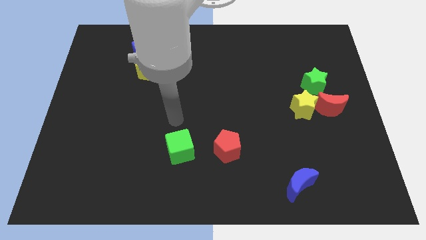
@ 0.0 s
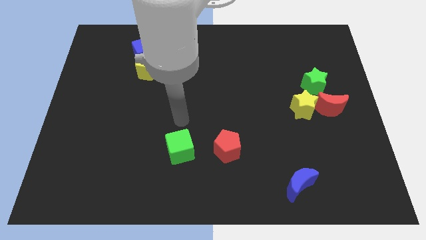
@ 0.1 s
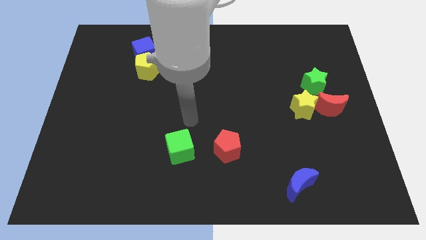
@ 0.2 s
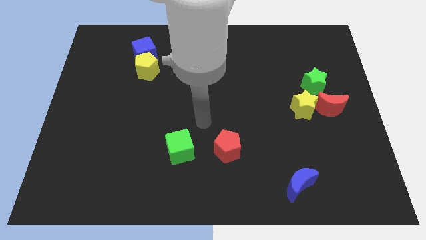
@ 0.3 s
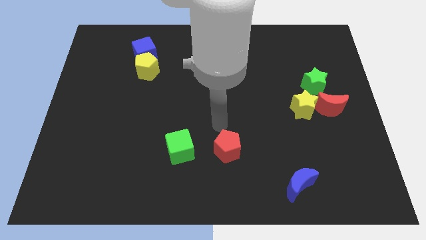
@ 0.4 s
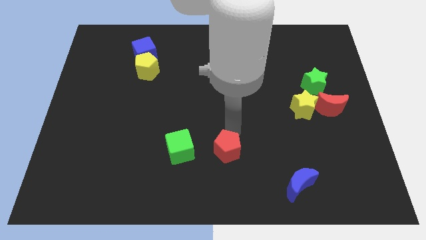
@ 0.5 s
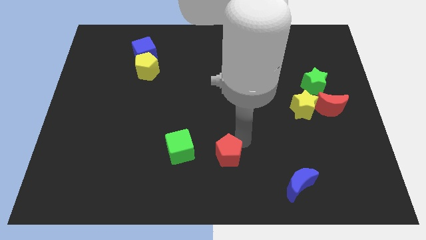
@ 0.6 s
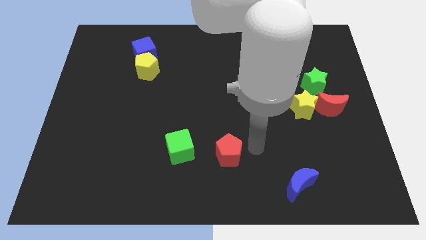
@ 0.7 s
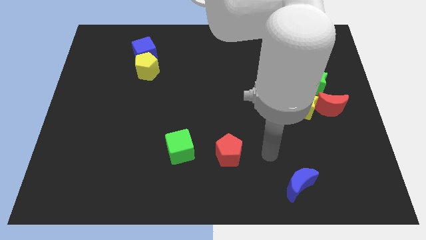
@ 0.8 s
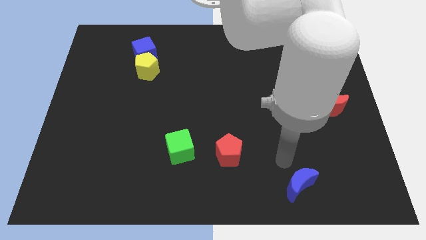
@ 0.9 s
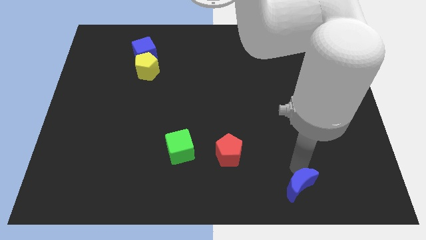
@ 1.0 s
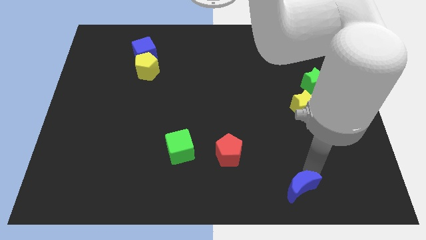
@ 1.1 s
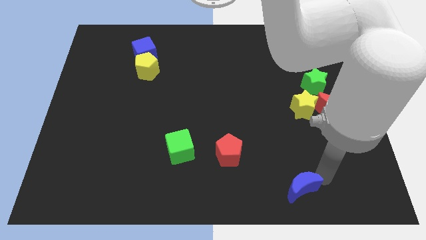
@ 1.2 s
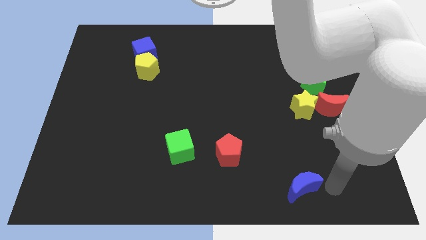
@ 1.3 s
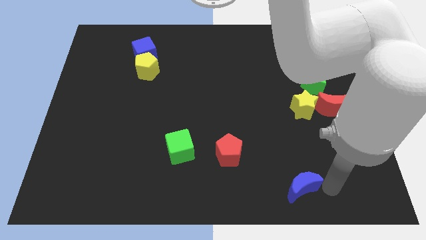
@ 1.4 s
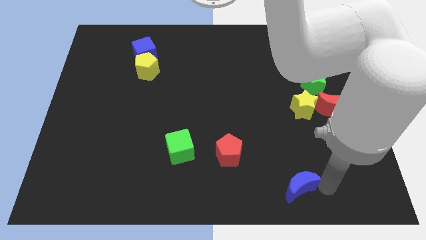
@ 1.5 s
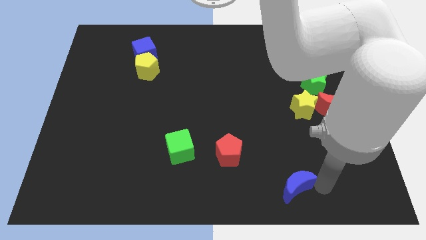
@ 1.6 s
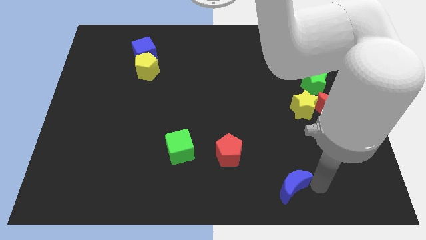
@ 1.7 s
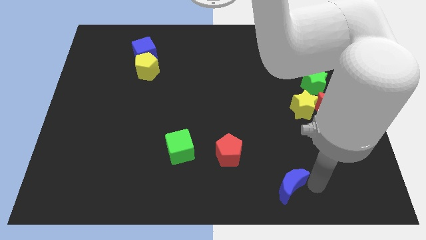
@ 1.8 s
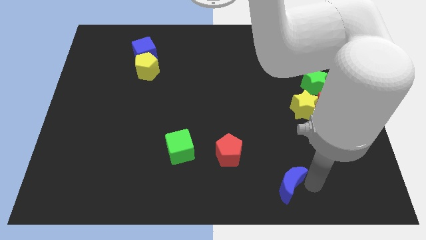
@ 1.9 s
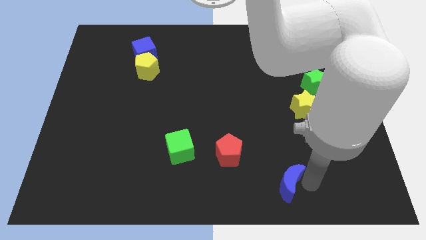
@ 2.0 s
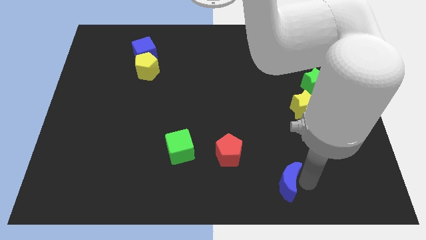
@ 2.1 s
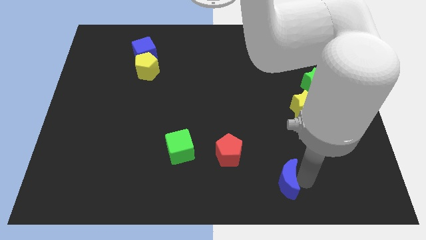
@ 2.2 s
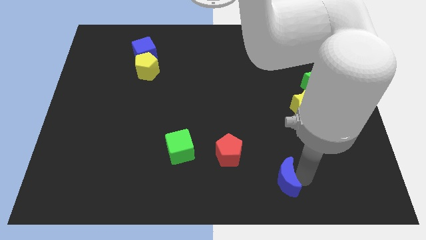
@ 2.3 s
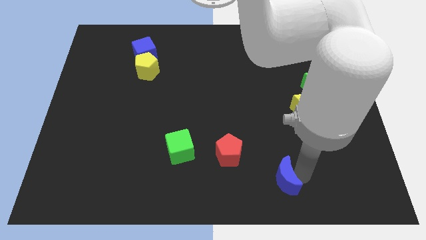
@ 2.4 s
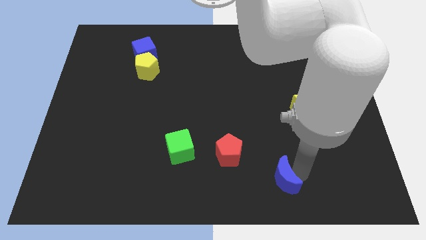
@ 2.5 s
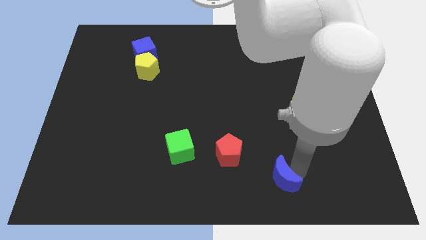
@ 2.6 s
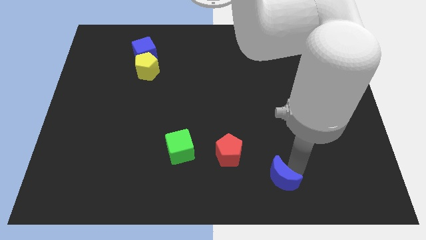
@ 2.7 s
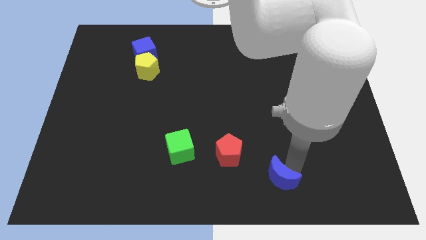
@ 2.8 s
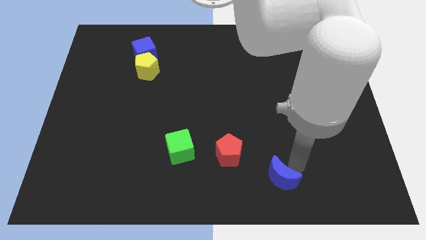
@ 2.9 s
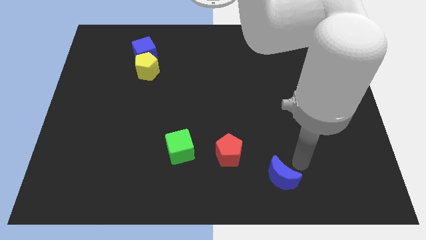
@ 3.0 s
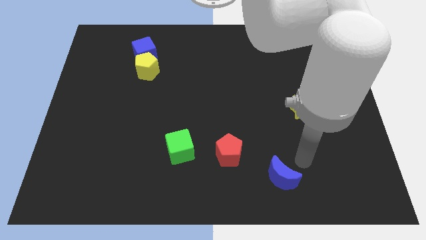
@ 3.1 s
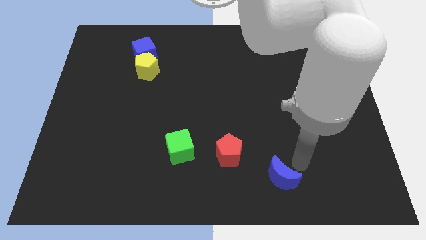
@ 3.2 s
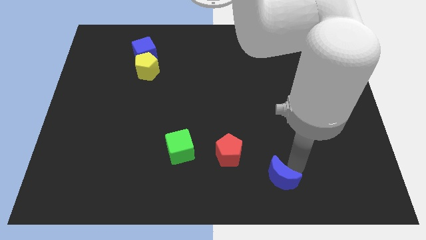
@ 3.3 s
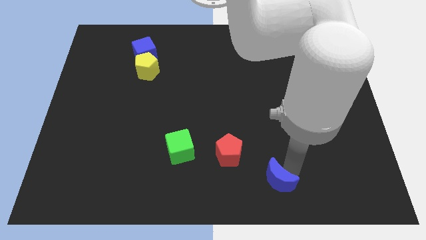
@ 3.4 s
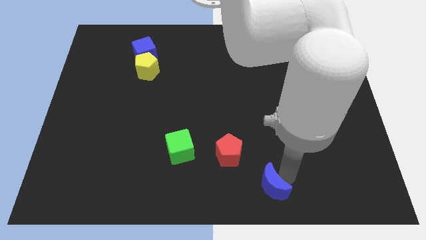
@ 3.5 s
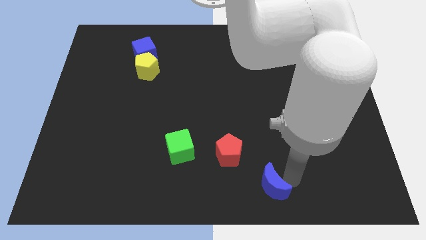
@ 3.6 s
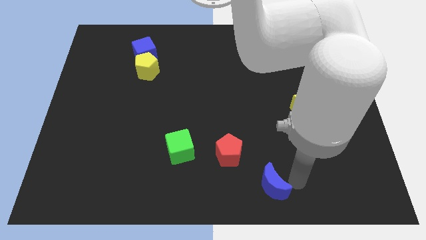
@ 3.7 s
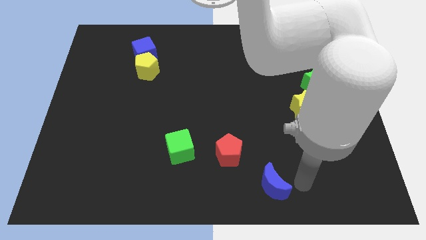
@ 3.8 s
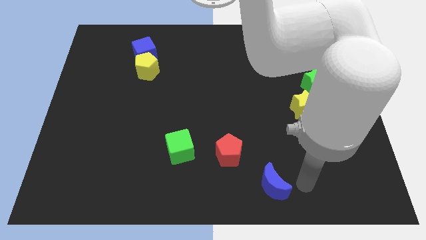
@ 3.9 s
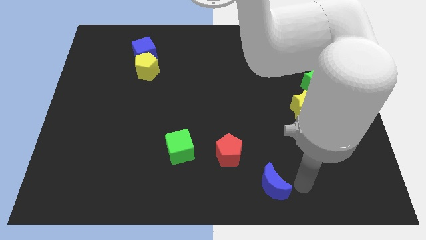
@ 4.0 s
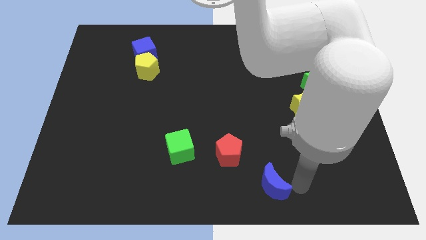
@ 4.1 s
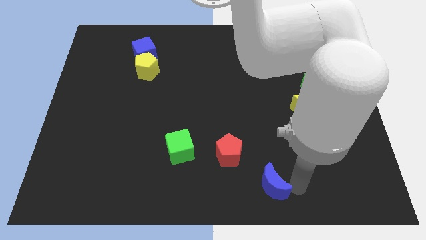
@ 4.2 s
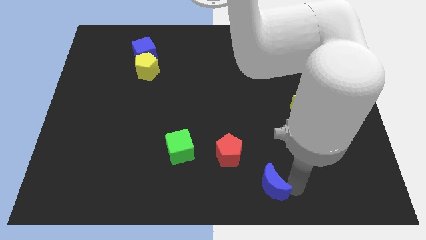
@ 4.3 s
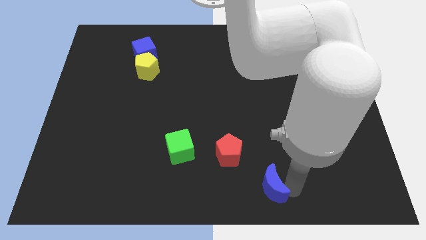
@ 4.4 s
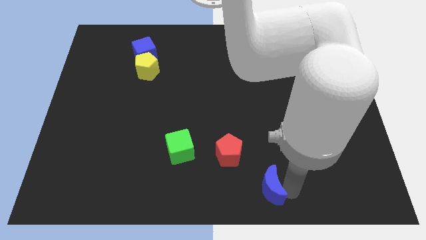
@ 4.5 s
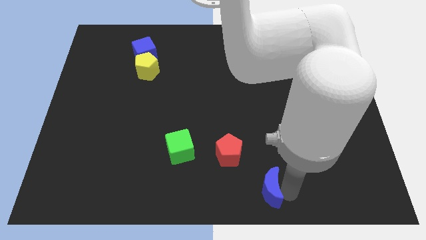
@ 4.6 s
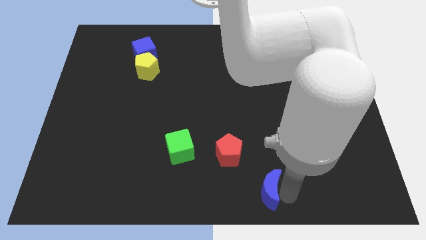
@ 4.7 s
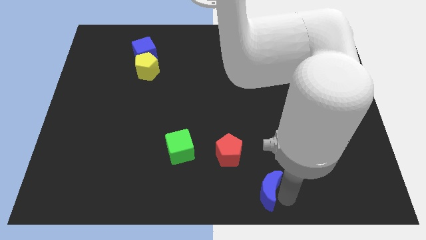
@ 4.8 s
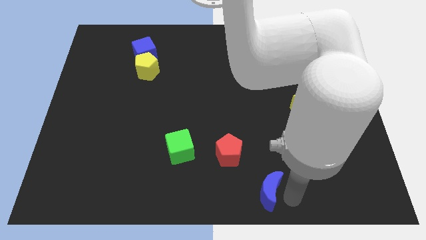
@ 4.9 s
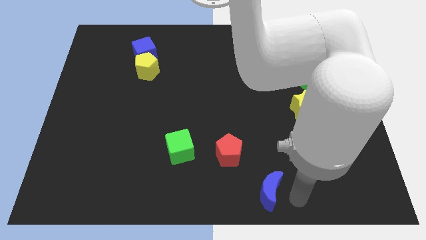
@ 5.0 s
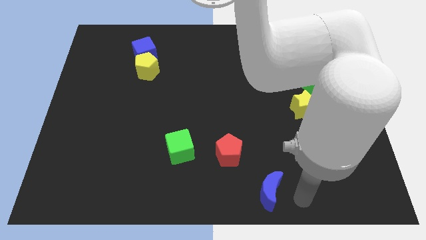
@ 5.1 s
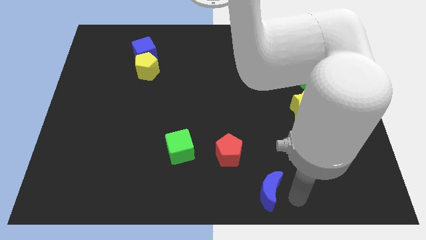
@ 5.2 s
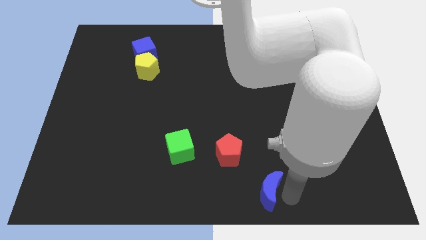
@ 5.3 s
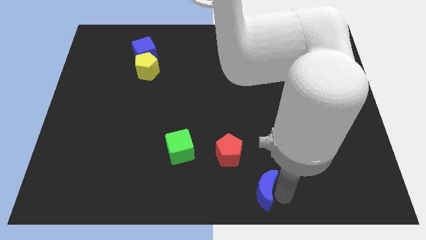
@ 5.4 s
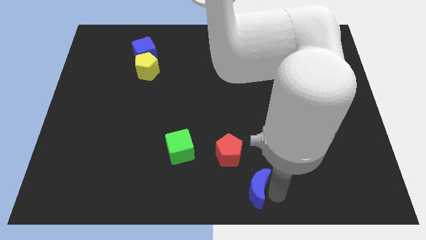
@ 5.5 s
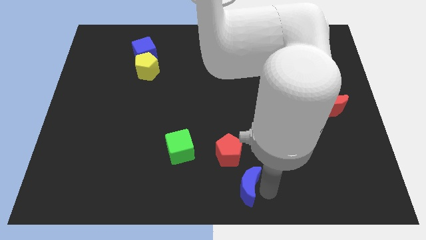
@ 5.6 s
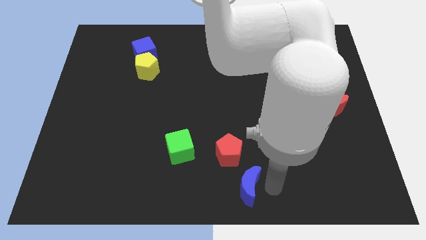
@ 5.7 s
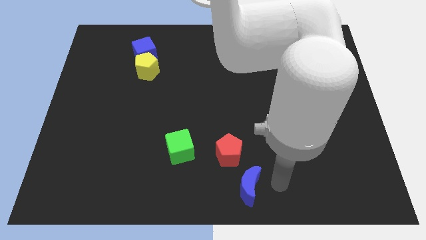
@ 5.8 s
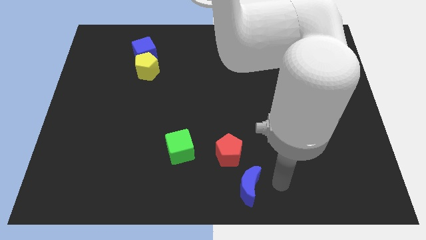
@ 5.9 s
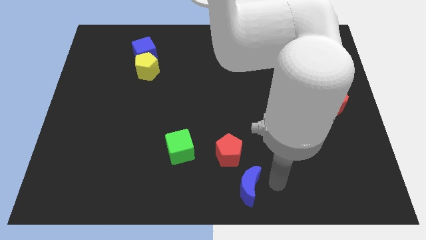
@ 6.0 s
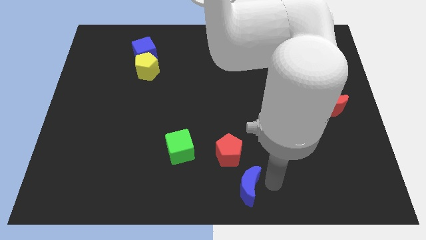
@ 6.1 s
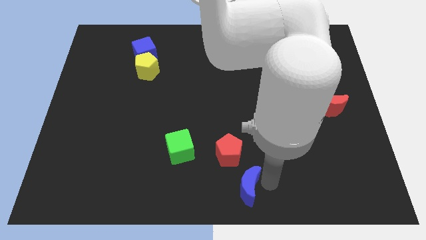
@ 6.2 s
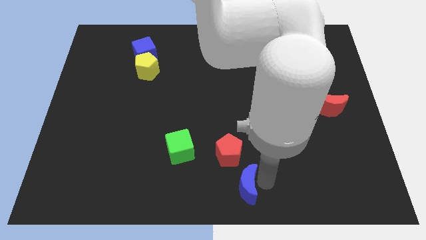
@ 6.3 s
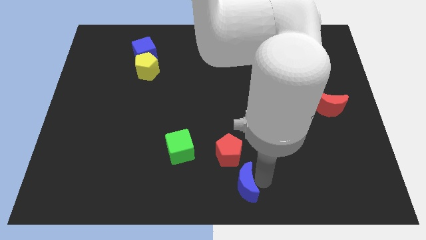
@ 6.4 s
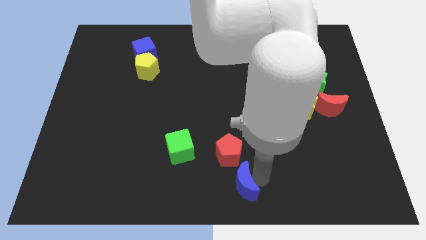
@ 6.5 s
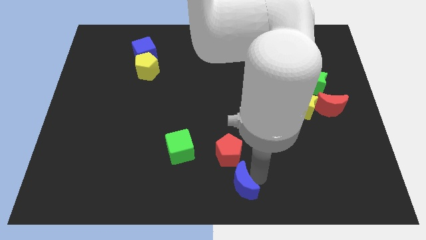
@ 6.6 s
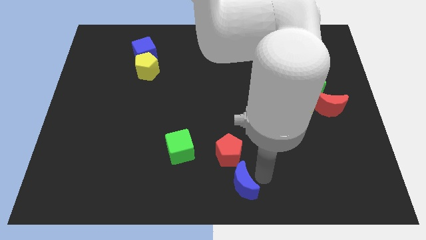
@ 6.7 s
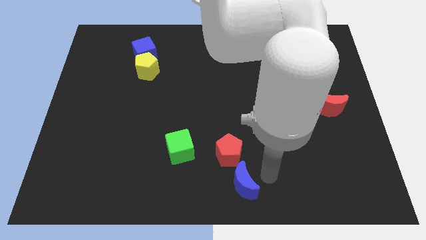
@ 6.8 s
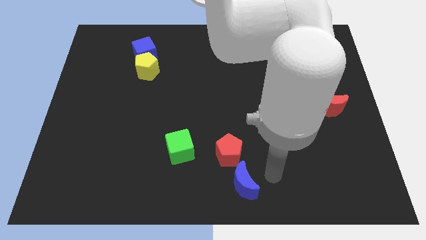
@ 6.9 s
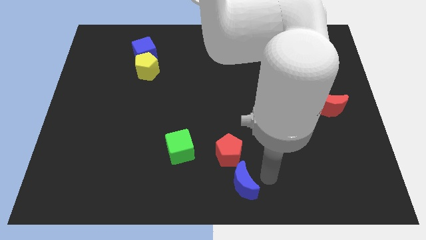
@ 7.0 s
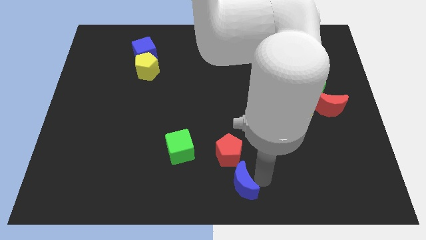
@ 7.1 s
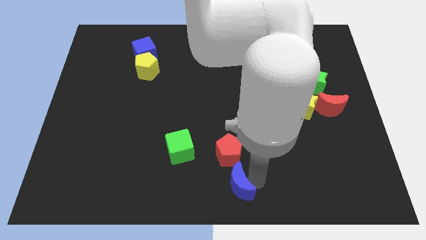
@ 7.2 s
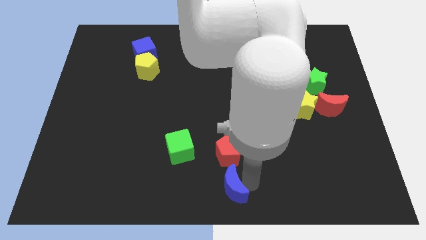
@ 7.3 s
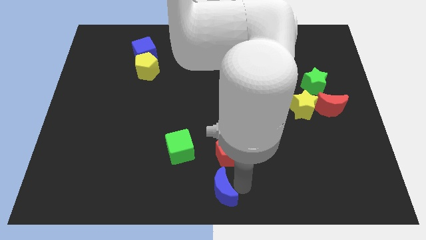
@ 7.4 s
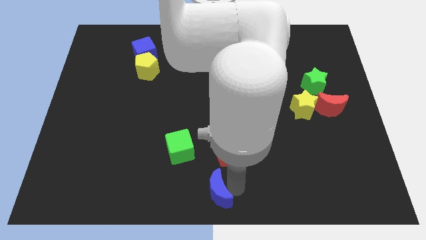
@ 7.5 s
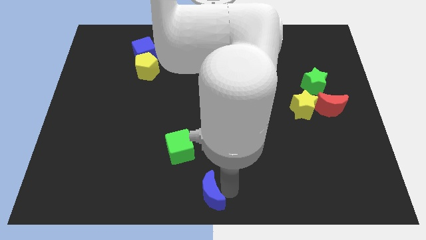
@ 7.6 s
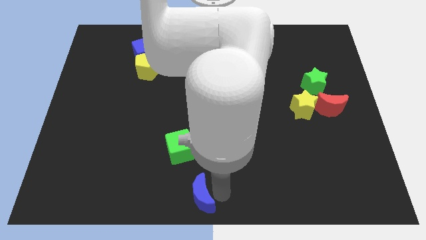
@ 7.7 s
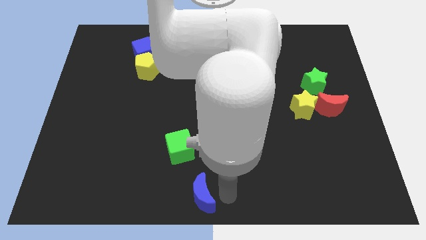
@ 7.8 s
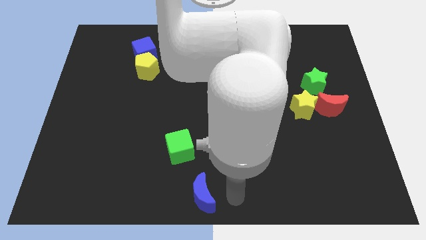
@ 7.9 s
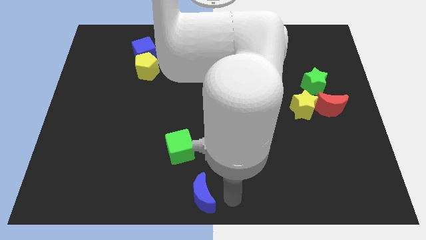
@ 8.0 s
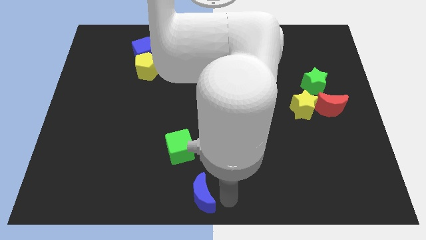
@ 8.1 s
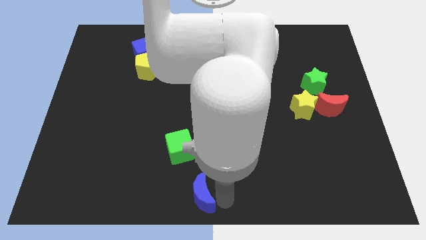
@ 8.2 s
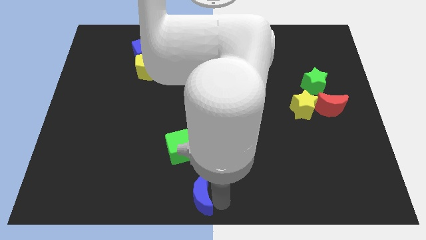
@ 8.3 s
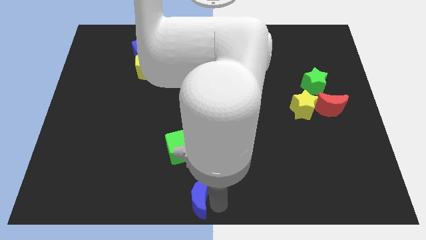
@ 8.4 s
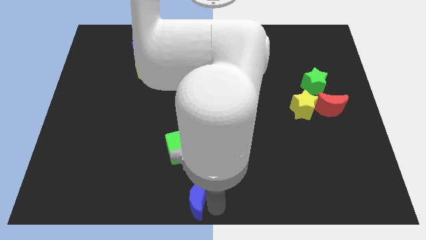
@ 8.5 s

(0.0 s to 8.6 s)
move the blue moon left
